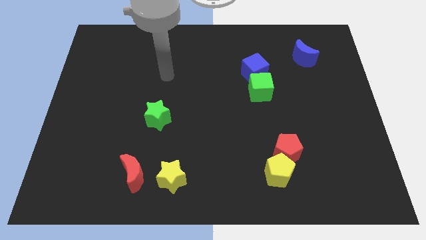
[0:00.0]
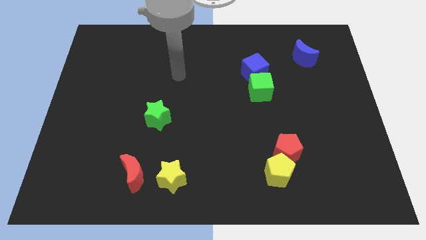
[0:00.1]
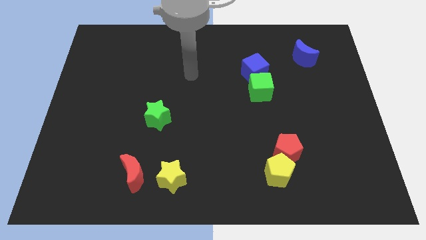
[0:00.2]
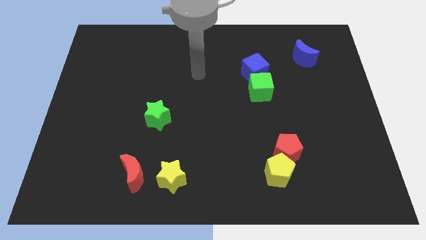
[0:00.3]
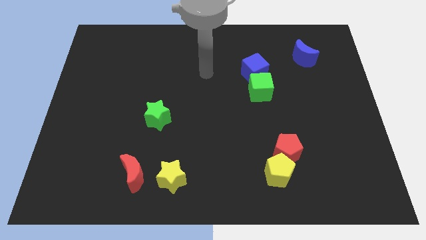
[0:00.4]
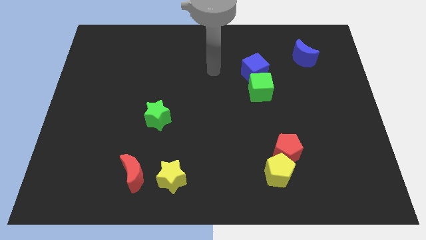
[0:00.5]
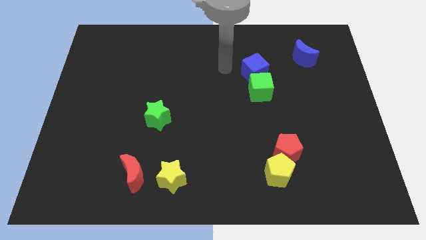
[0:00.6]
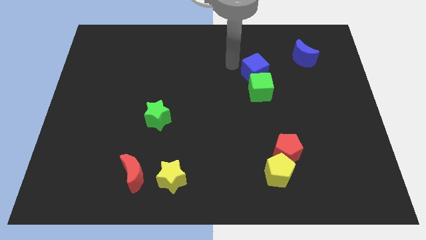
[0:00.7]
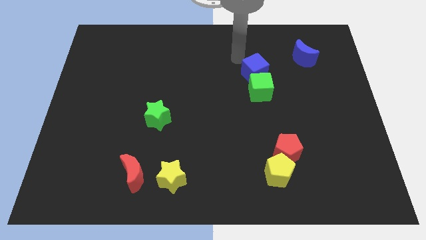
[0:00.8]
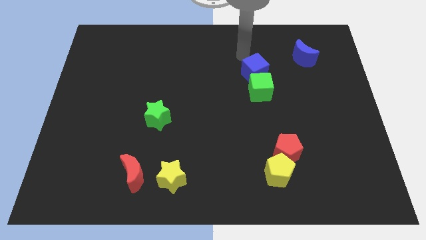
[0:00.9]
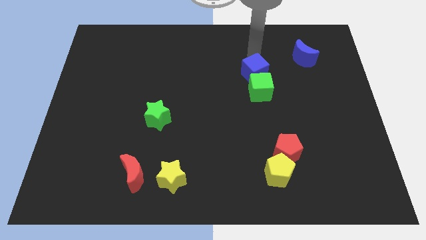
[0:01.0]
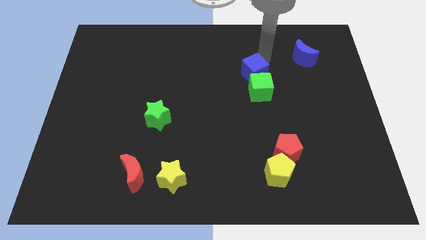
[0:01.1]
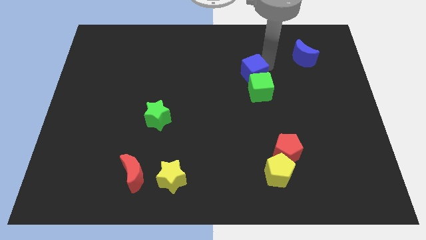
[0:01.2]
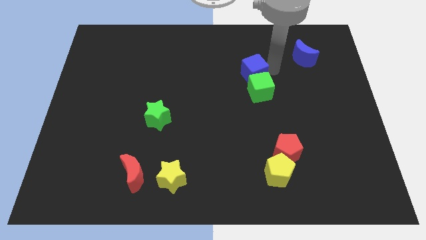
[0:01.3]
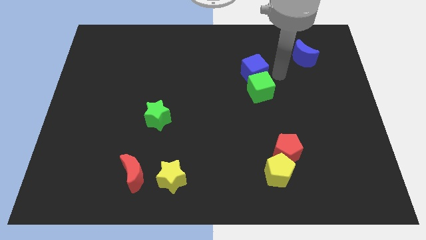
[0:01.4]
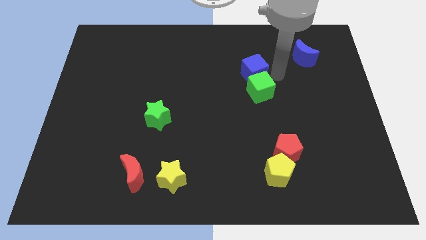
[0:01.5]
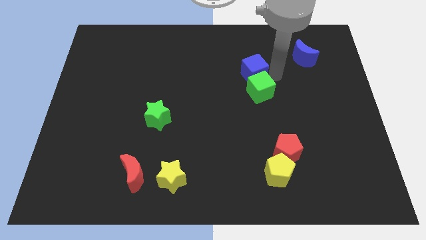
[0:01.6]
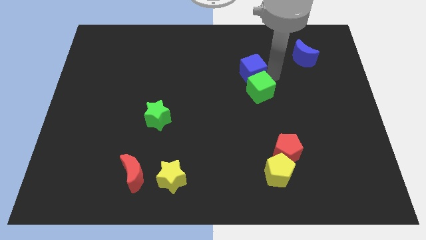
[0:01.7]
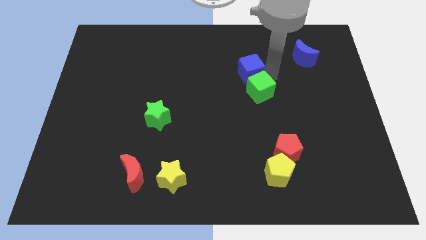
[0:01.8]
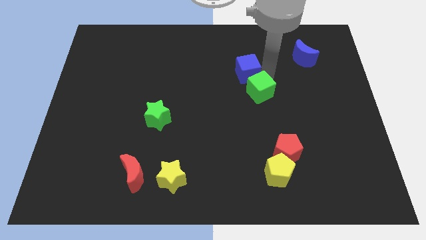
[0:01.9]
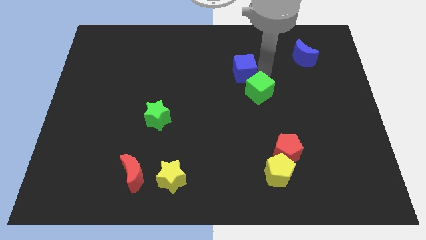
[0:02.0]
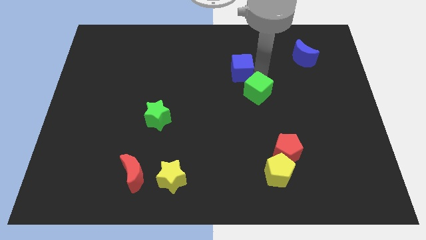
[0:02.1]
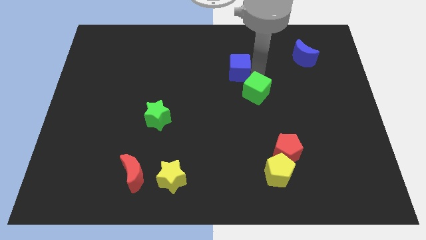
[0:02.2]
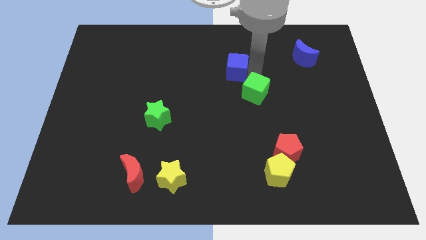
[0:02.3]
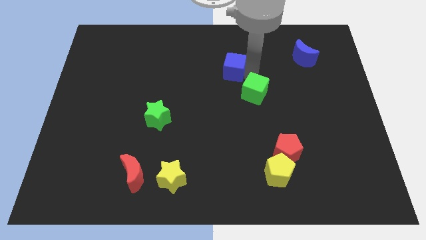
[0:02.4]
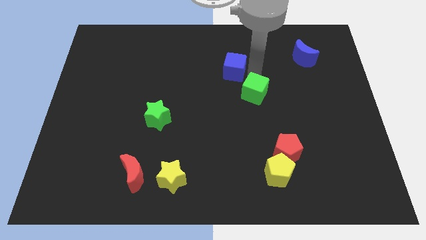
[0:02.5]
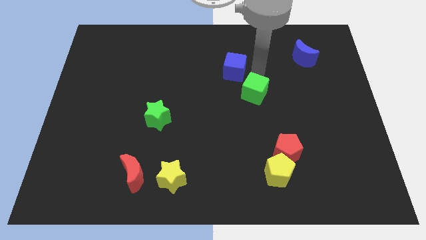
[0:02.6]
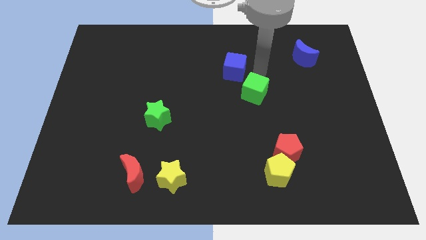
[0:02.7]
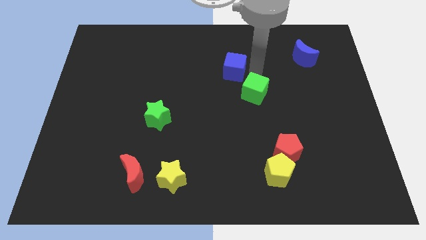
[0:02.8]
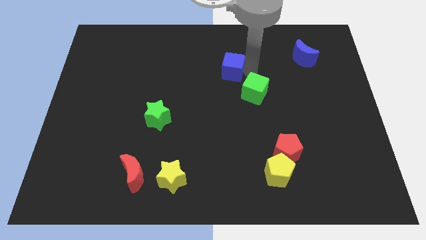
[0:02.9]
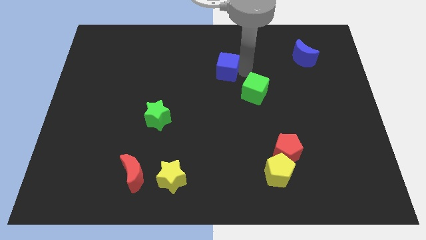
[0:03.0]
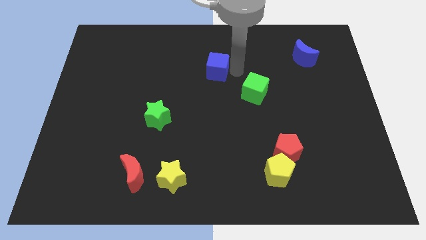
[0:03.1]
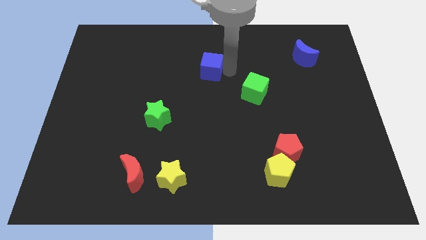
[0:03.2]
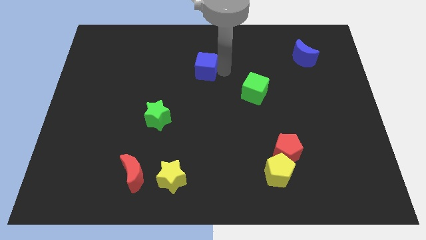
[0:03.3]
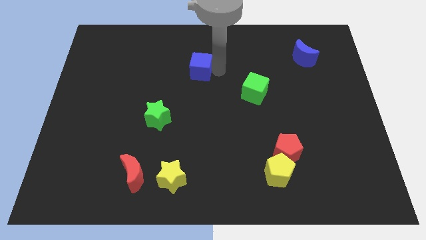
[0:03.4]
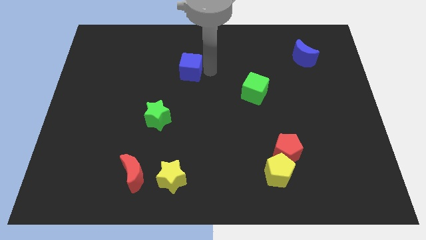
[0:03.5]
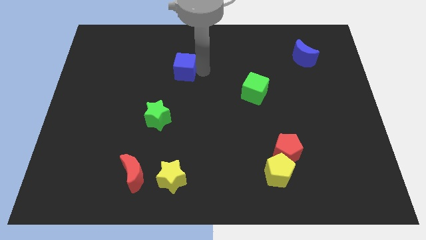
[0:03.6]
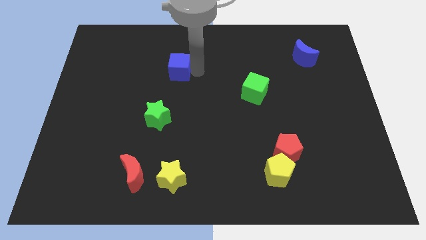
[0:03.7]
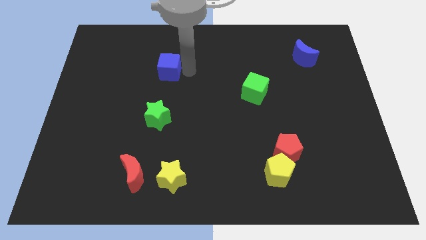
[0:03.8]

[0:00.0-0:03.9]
slide the blue cube left

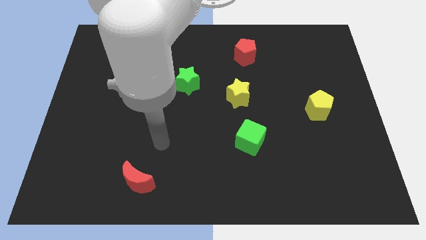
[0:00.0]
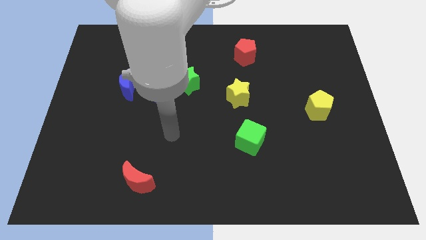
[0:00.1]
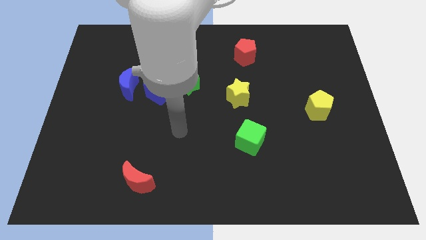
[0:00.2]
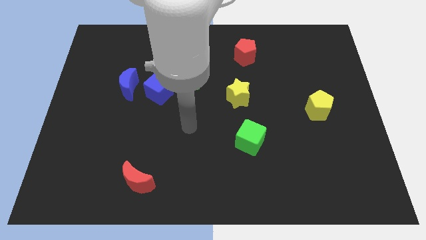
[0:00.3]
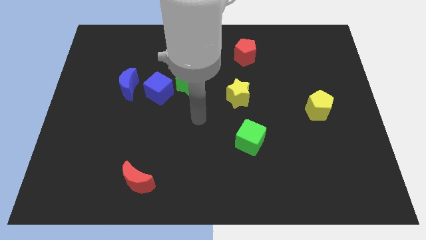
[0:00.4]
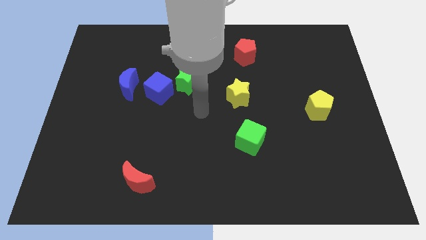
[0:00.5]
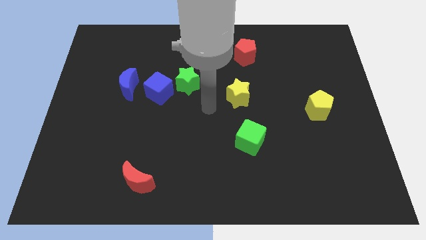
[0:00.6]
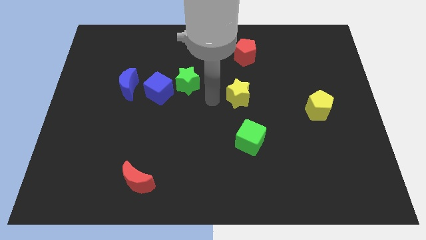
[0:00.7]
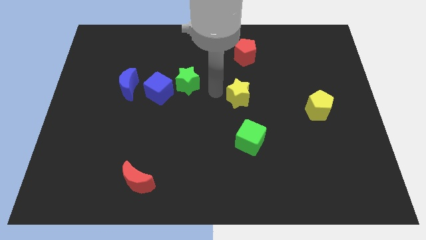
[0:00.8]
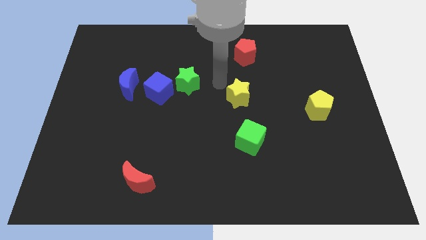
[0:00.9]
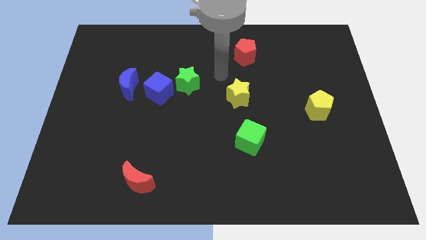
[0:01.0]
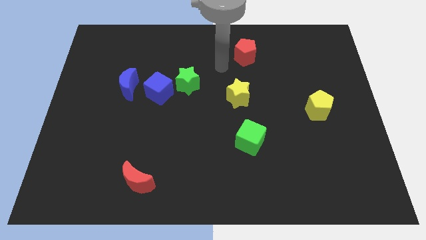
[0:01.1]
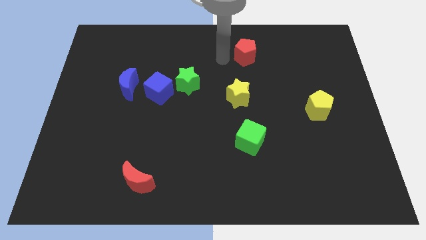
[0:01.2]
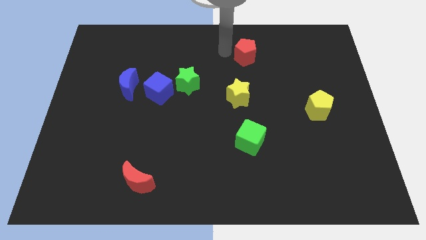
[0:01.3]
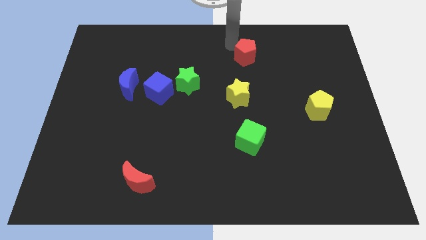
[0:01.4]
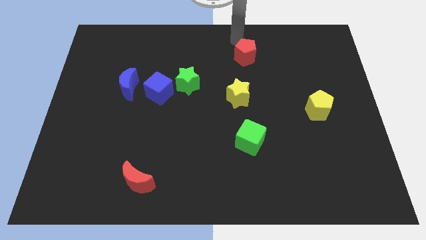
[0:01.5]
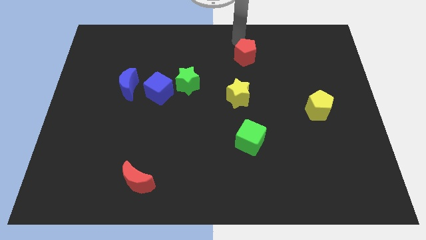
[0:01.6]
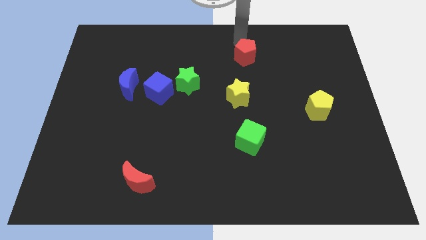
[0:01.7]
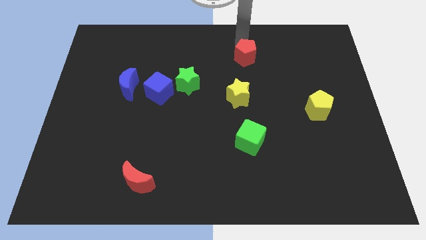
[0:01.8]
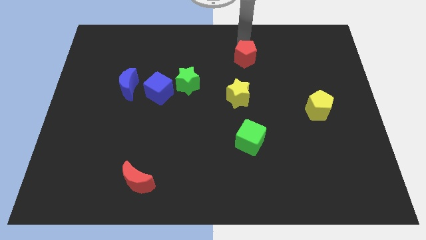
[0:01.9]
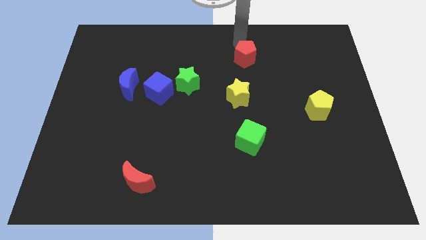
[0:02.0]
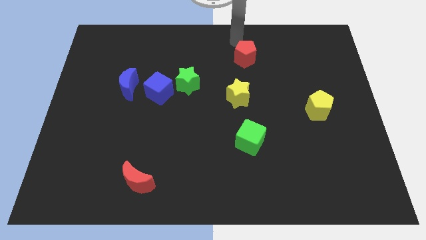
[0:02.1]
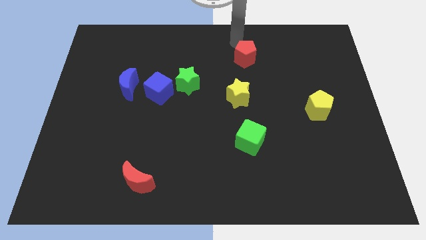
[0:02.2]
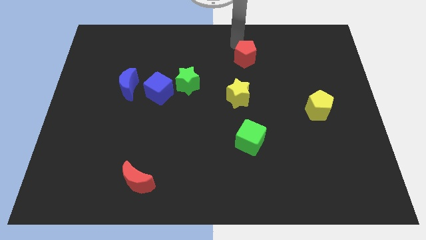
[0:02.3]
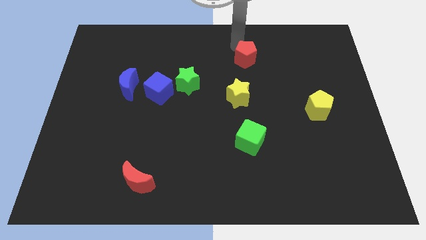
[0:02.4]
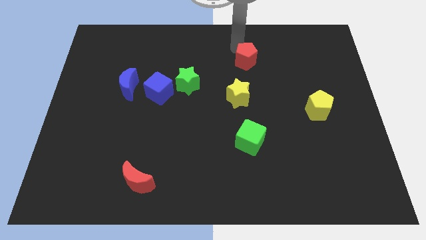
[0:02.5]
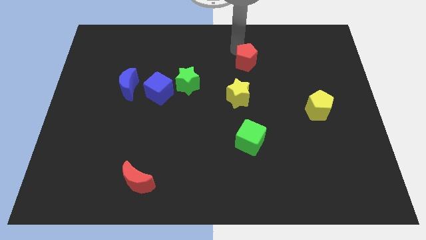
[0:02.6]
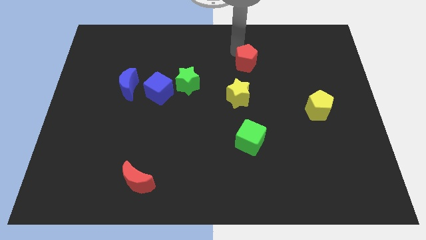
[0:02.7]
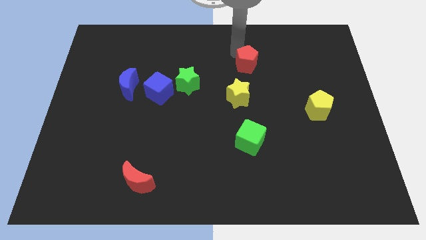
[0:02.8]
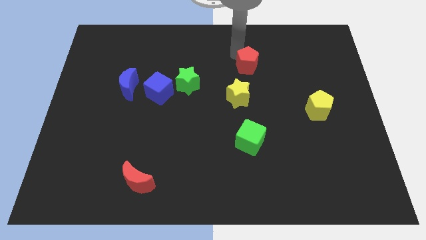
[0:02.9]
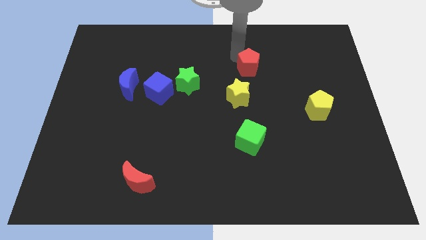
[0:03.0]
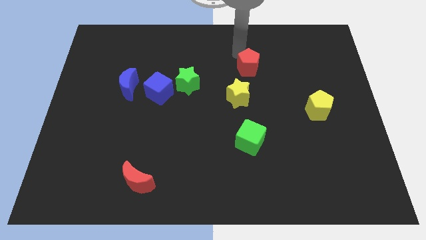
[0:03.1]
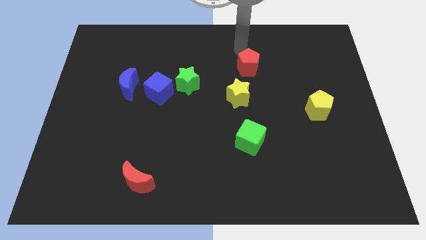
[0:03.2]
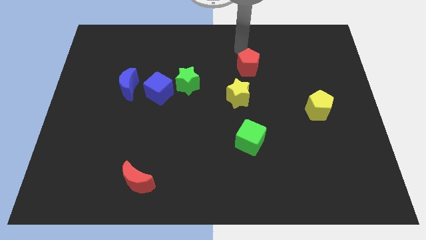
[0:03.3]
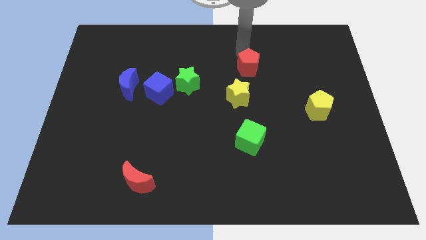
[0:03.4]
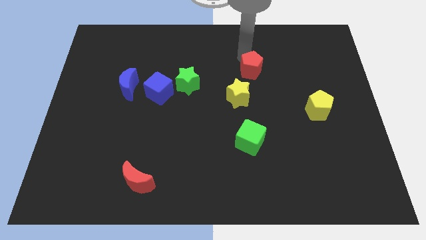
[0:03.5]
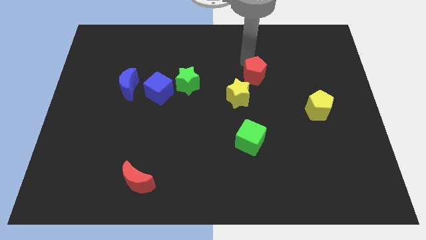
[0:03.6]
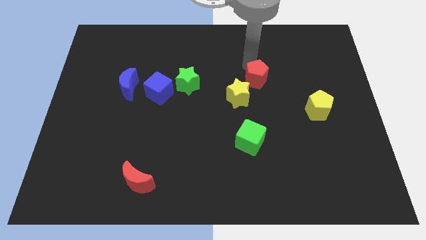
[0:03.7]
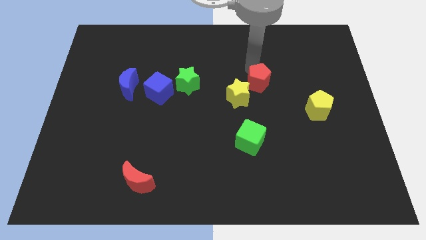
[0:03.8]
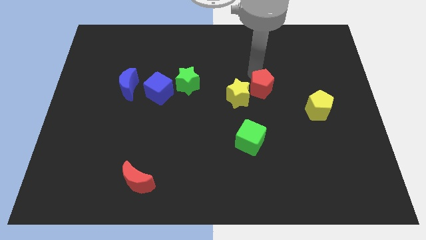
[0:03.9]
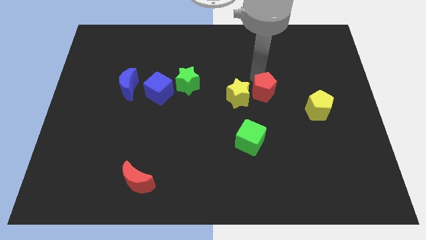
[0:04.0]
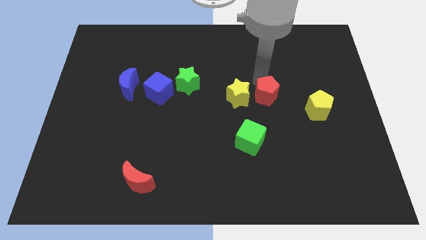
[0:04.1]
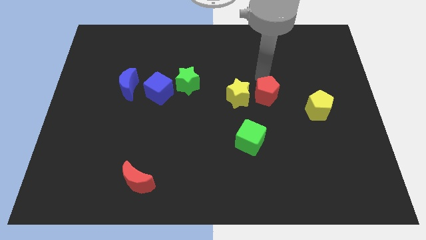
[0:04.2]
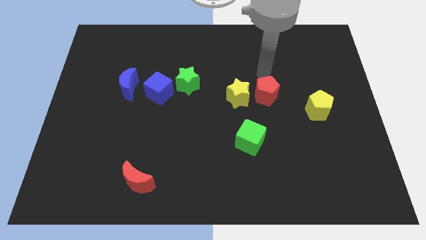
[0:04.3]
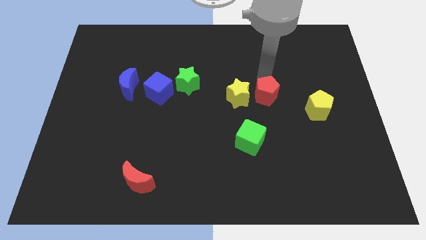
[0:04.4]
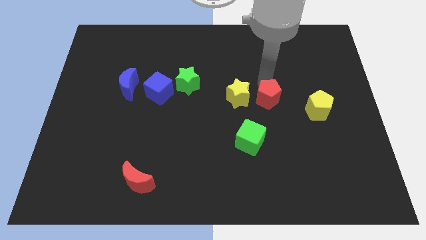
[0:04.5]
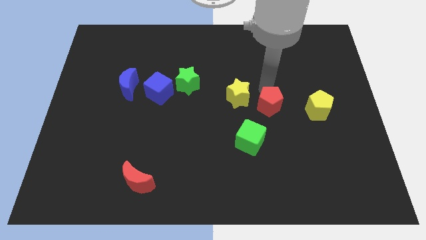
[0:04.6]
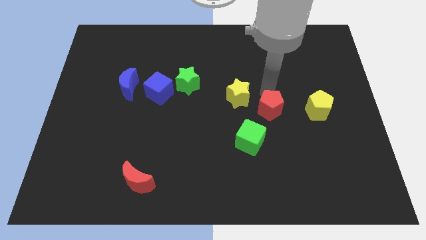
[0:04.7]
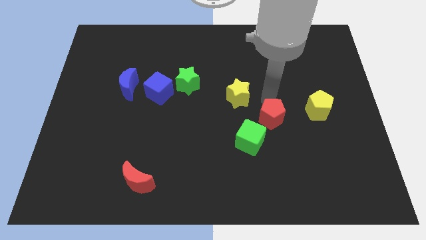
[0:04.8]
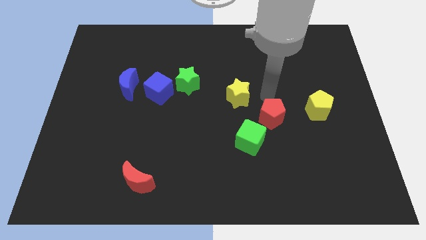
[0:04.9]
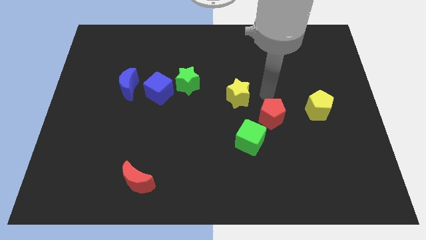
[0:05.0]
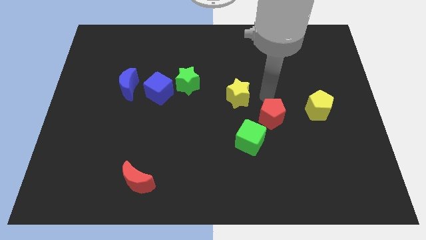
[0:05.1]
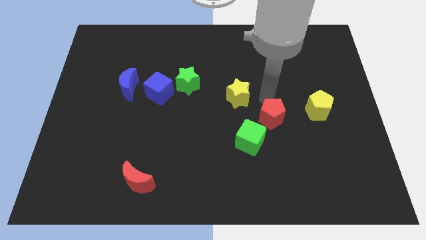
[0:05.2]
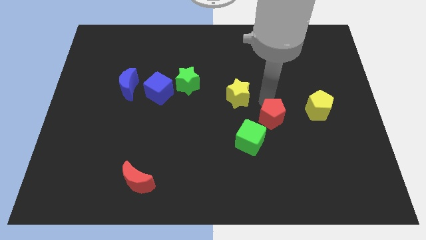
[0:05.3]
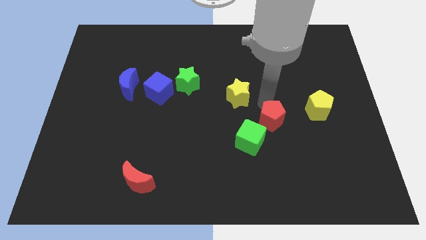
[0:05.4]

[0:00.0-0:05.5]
move the red pentagon down
